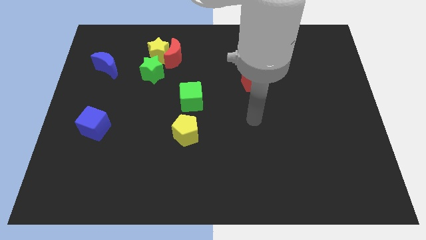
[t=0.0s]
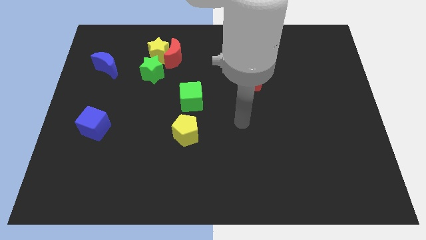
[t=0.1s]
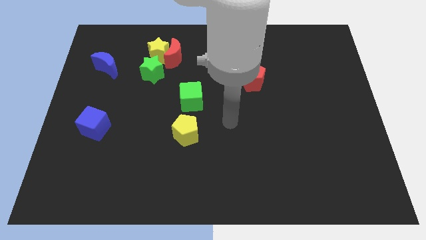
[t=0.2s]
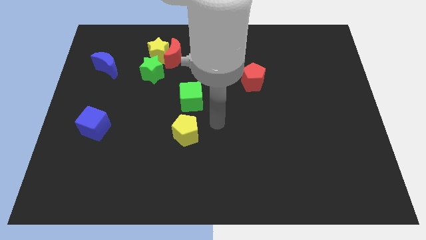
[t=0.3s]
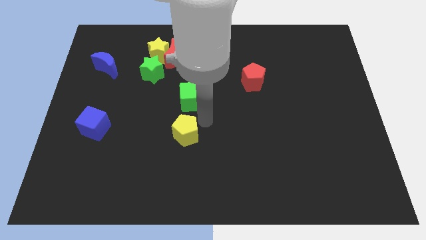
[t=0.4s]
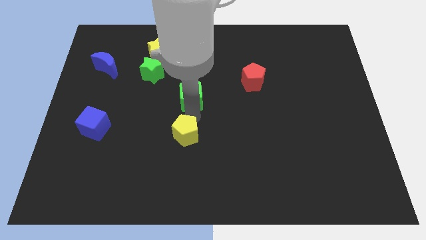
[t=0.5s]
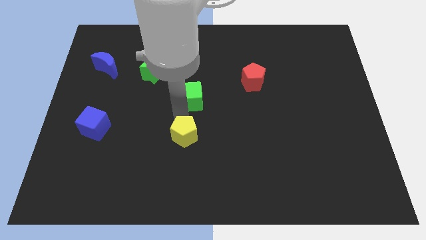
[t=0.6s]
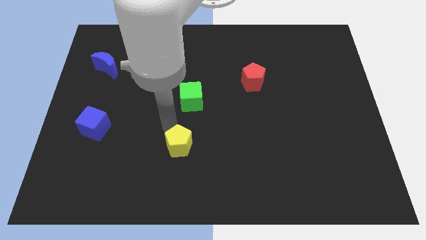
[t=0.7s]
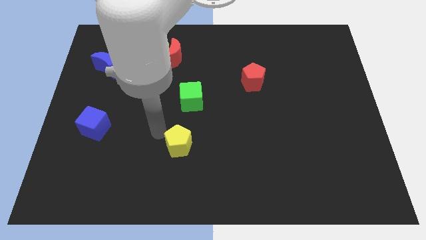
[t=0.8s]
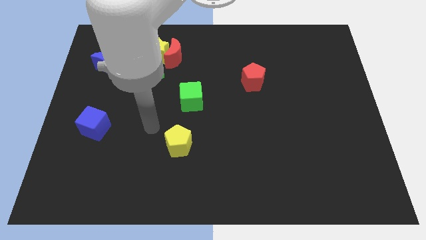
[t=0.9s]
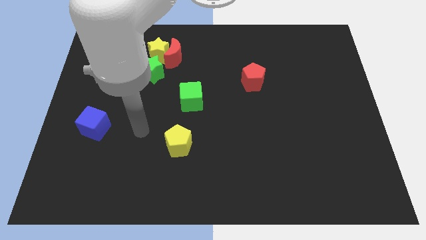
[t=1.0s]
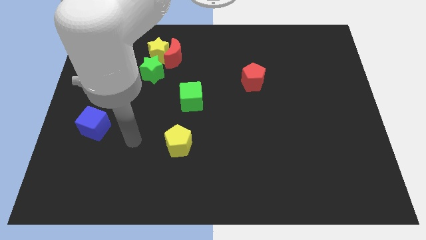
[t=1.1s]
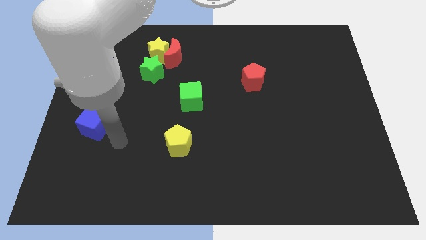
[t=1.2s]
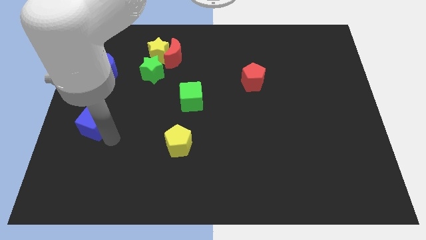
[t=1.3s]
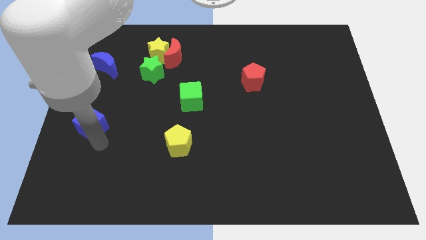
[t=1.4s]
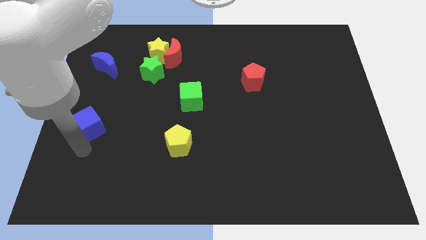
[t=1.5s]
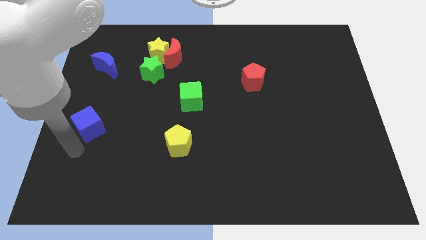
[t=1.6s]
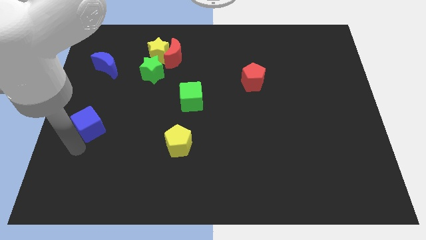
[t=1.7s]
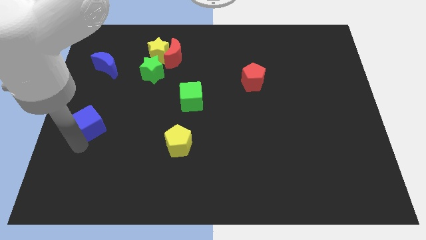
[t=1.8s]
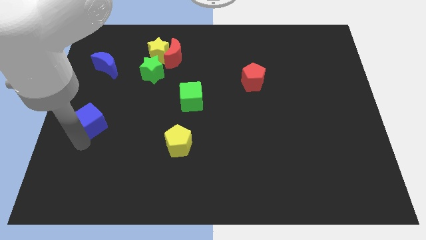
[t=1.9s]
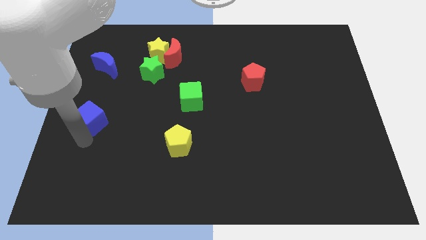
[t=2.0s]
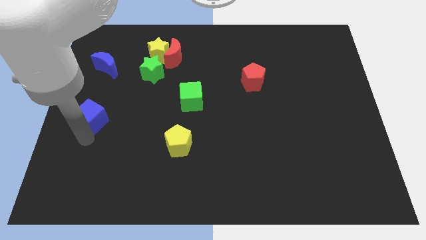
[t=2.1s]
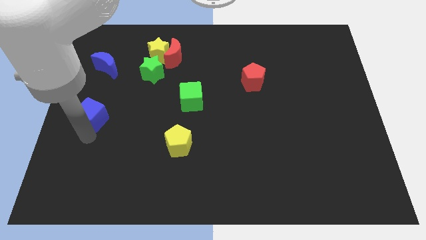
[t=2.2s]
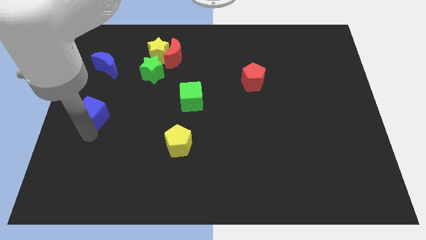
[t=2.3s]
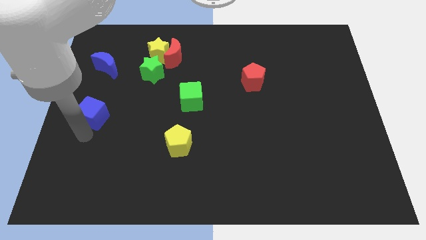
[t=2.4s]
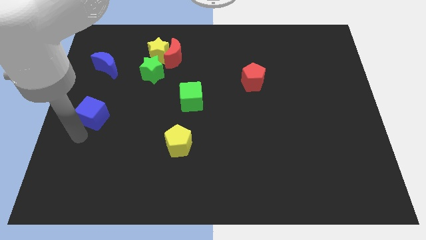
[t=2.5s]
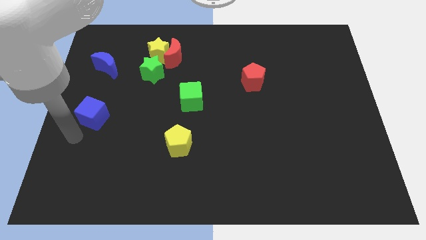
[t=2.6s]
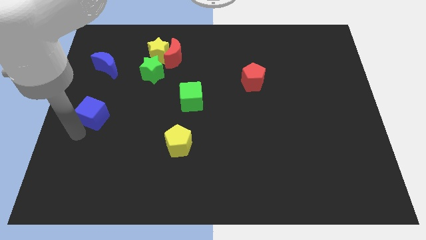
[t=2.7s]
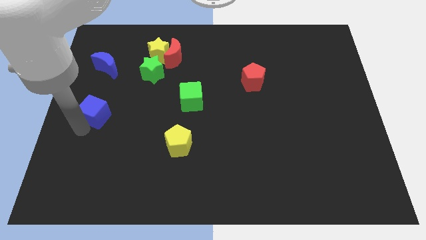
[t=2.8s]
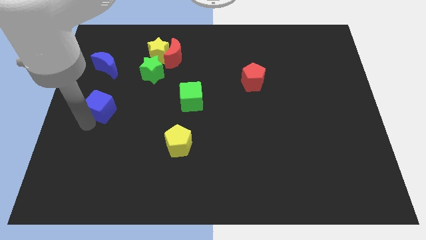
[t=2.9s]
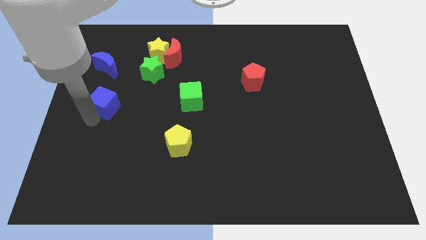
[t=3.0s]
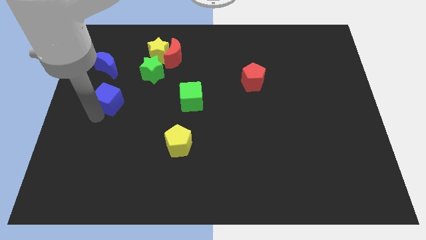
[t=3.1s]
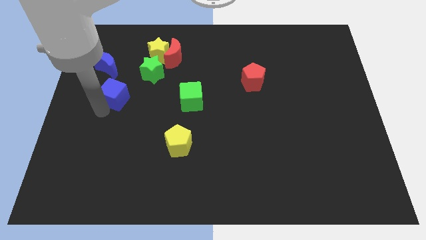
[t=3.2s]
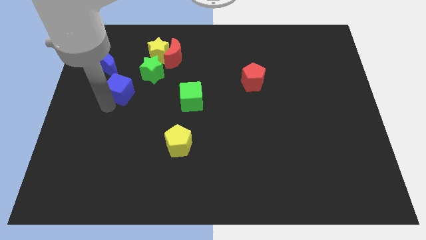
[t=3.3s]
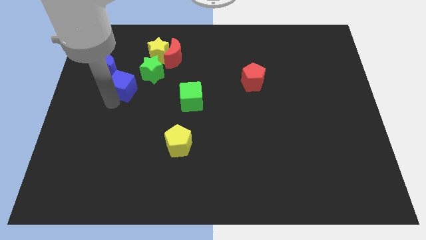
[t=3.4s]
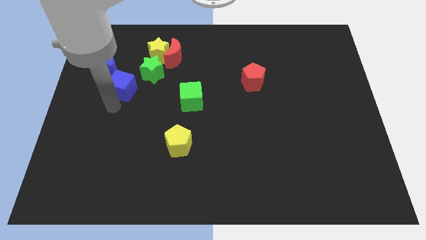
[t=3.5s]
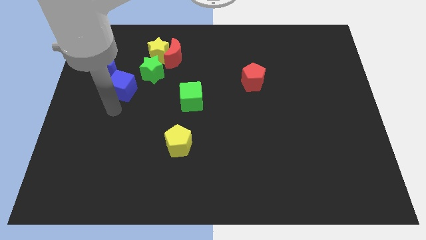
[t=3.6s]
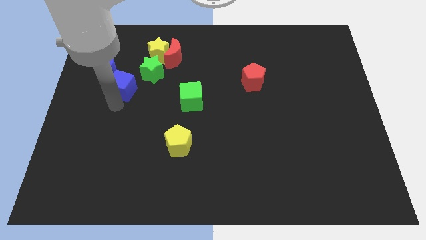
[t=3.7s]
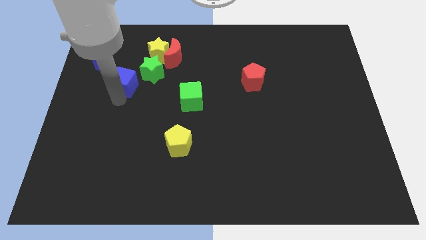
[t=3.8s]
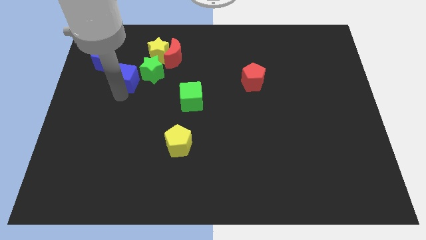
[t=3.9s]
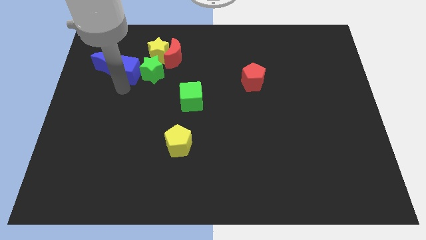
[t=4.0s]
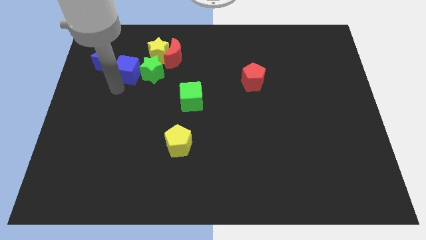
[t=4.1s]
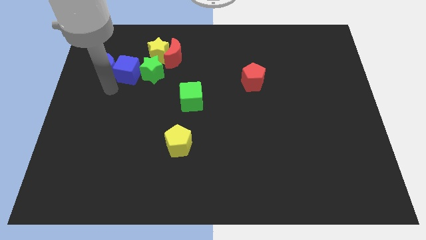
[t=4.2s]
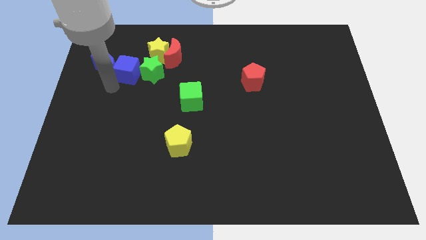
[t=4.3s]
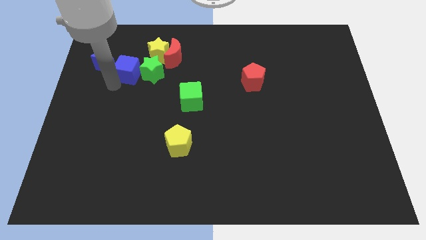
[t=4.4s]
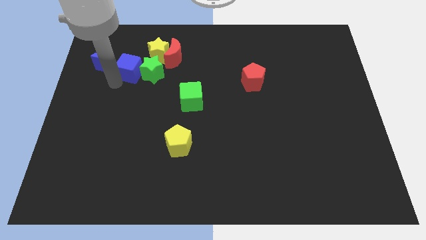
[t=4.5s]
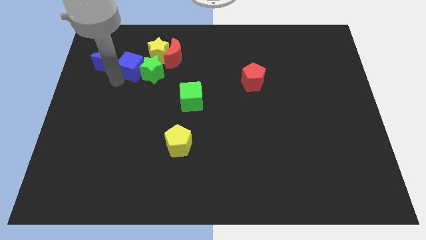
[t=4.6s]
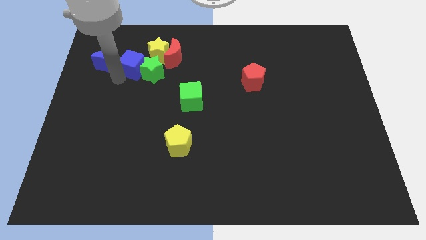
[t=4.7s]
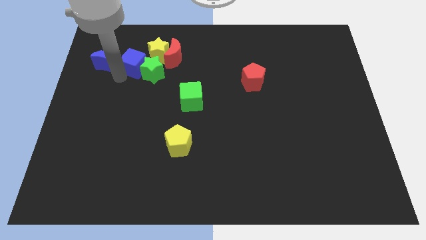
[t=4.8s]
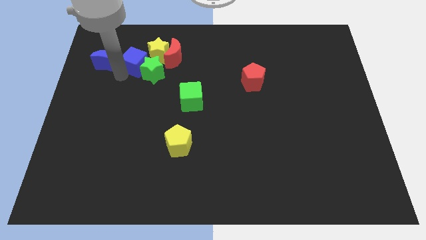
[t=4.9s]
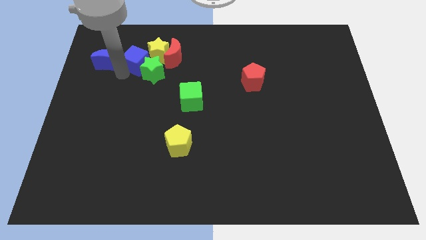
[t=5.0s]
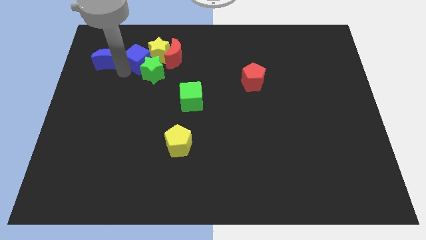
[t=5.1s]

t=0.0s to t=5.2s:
move the blue cube to the yellow star

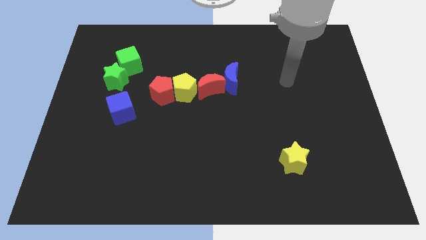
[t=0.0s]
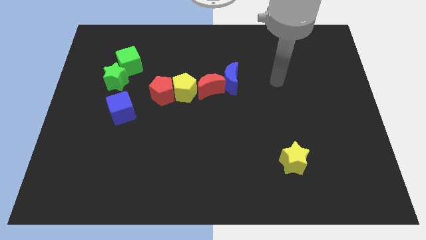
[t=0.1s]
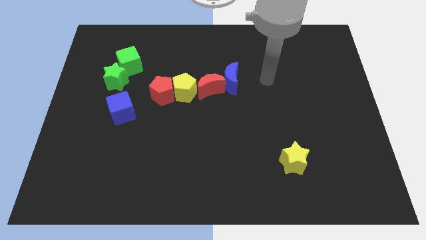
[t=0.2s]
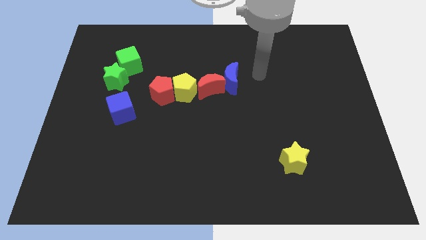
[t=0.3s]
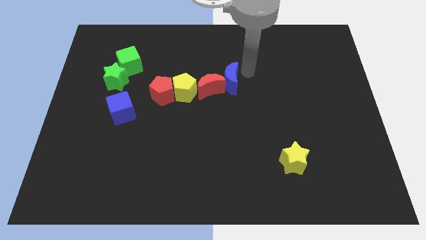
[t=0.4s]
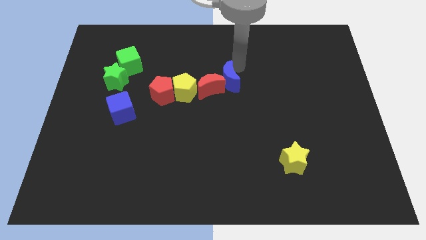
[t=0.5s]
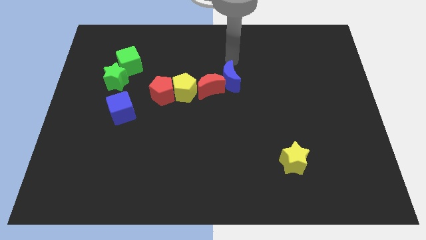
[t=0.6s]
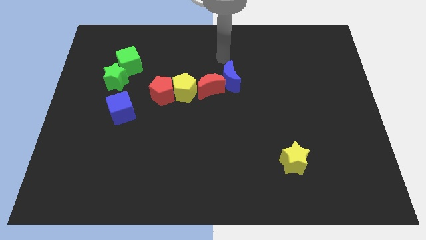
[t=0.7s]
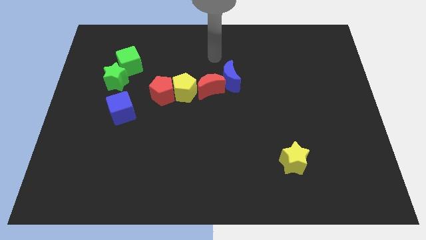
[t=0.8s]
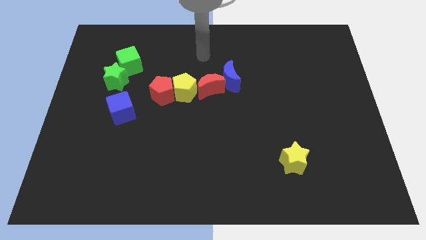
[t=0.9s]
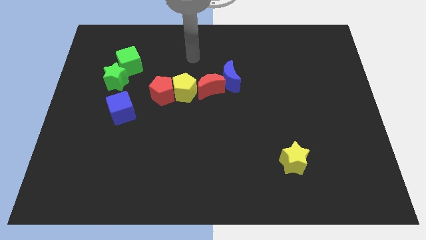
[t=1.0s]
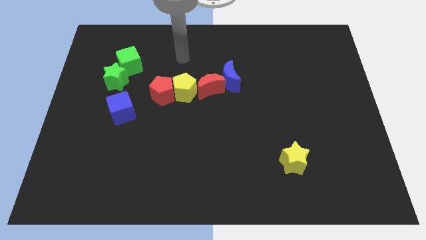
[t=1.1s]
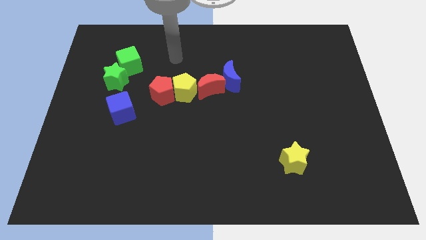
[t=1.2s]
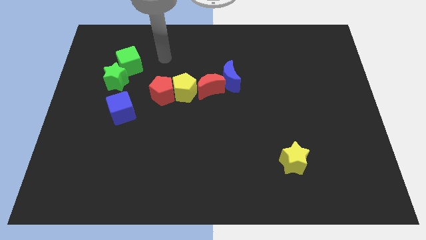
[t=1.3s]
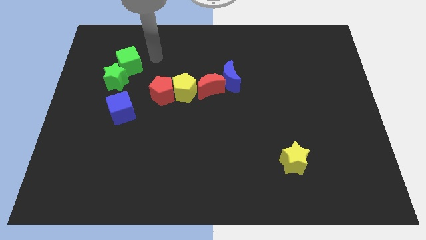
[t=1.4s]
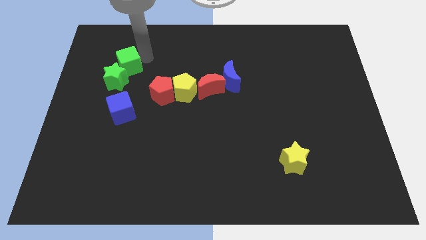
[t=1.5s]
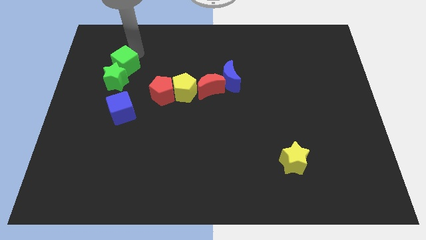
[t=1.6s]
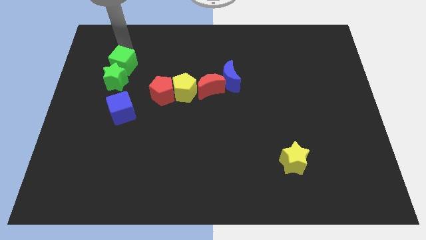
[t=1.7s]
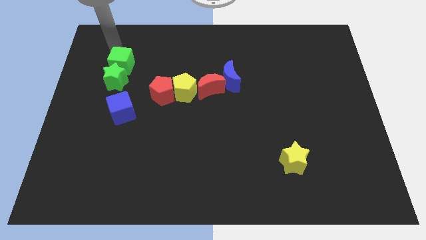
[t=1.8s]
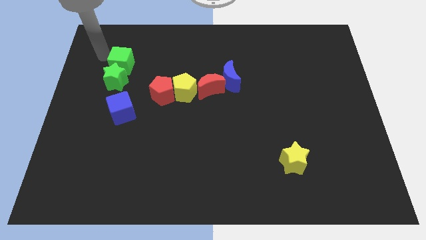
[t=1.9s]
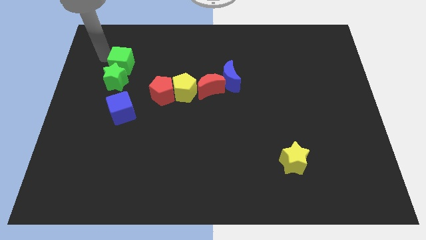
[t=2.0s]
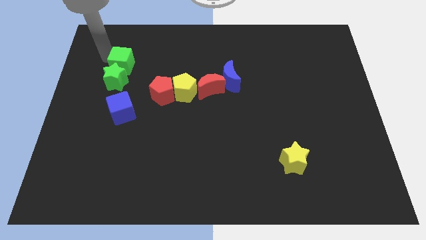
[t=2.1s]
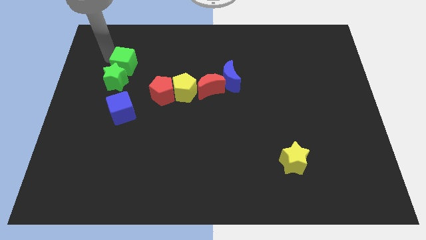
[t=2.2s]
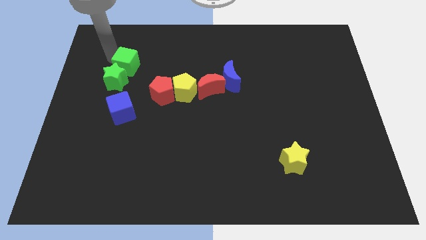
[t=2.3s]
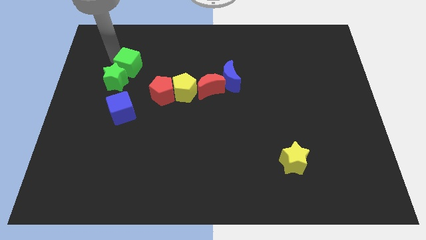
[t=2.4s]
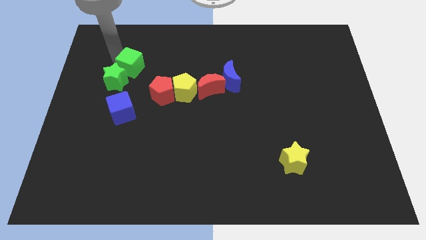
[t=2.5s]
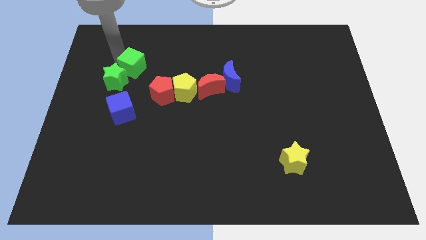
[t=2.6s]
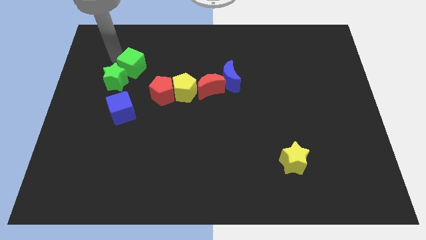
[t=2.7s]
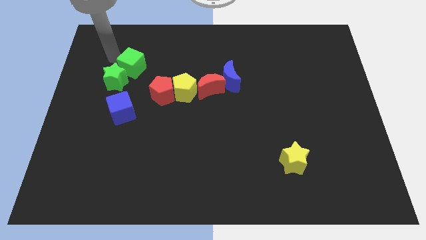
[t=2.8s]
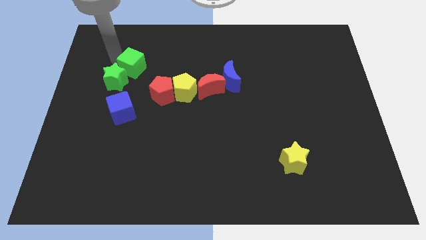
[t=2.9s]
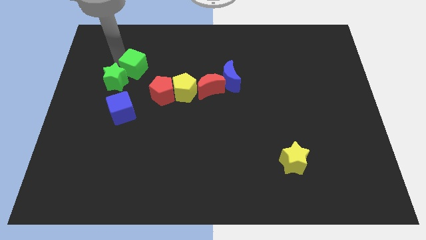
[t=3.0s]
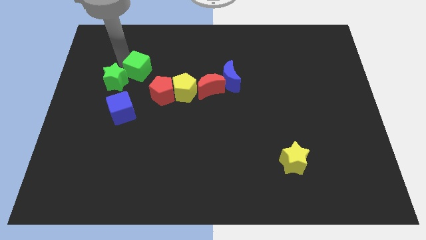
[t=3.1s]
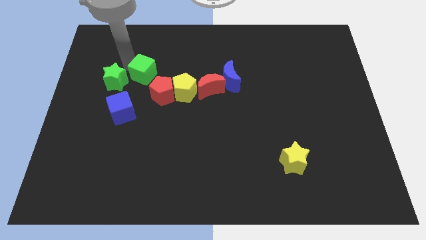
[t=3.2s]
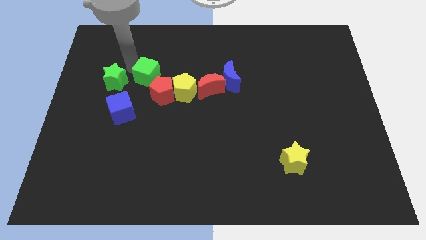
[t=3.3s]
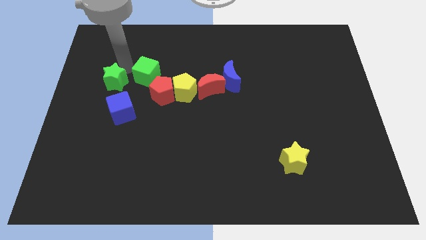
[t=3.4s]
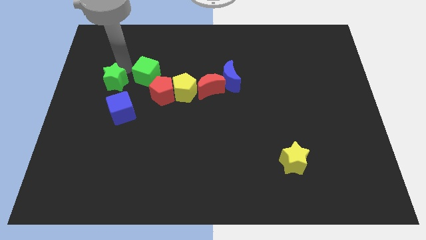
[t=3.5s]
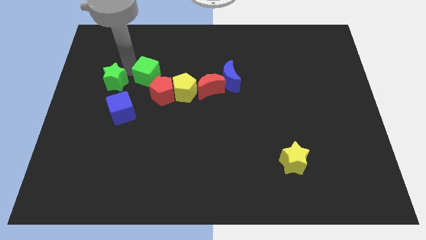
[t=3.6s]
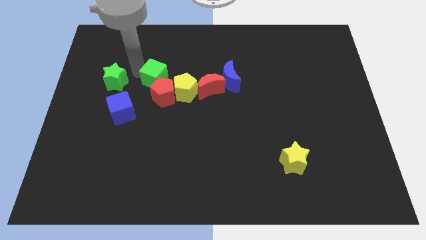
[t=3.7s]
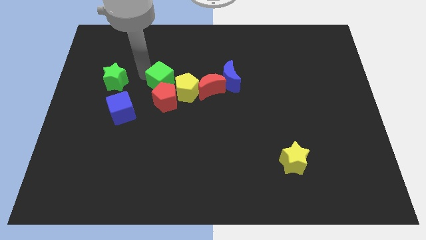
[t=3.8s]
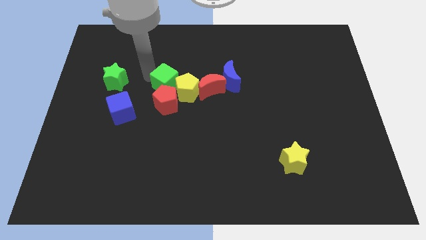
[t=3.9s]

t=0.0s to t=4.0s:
put the green cube towards the yellow pentagon
